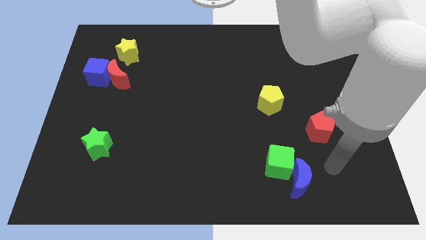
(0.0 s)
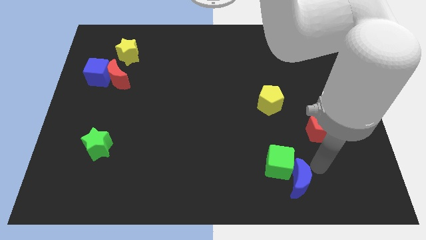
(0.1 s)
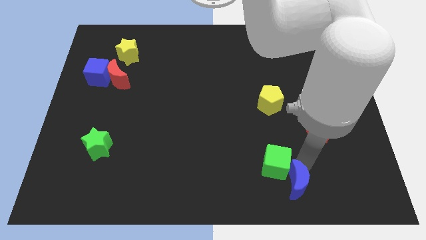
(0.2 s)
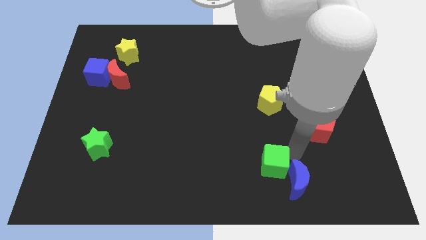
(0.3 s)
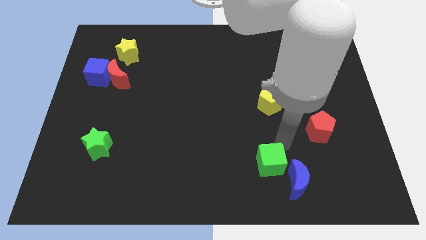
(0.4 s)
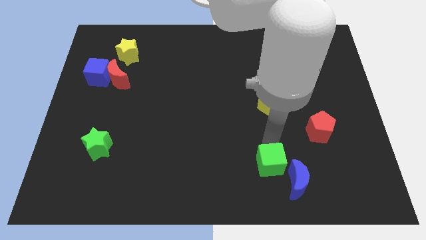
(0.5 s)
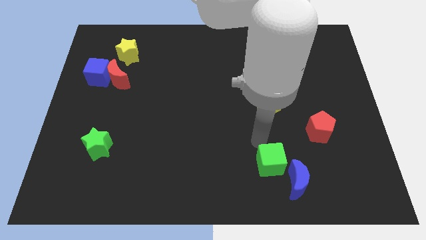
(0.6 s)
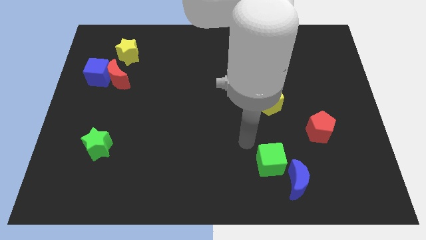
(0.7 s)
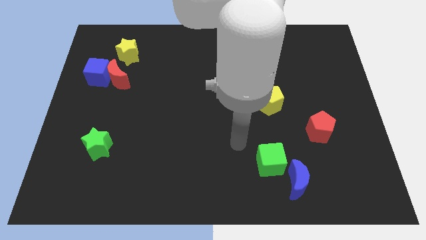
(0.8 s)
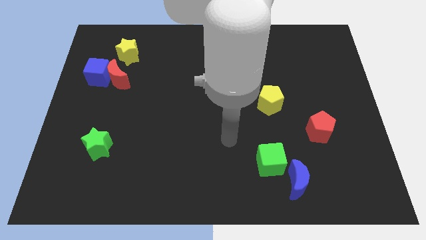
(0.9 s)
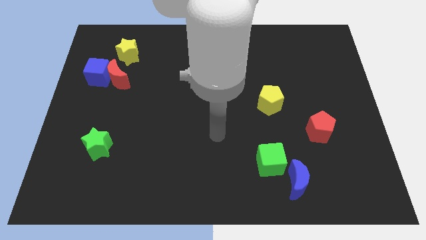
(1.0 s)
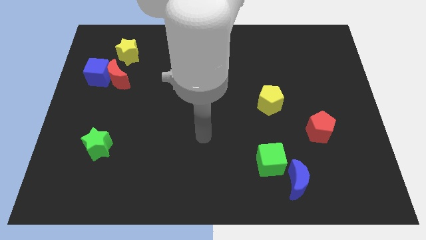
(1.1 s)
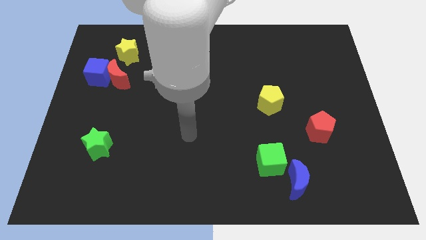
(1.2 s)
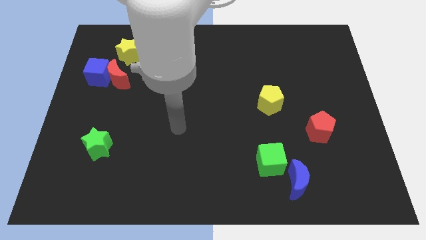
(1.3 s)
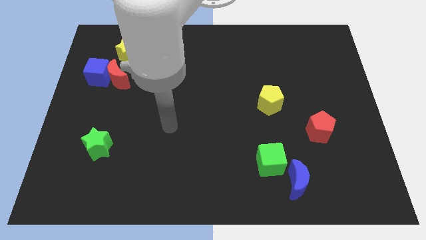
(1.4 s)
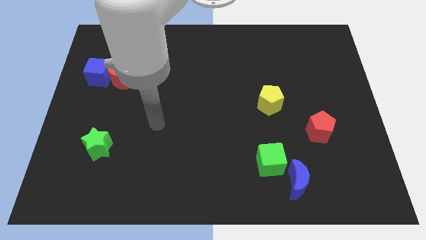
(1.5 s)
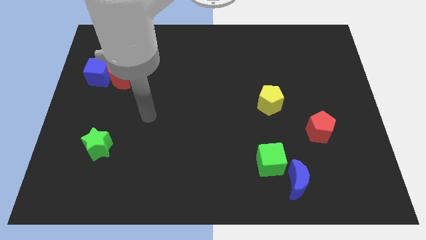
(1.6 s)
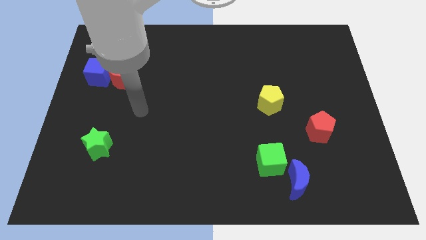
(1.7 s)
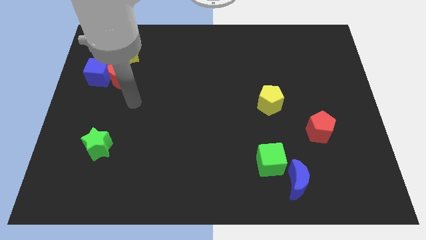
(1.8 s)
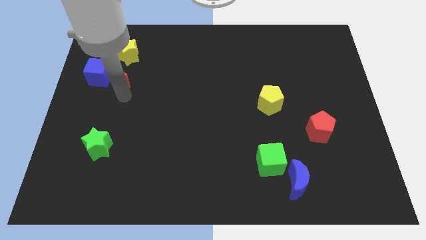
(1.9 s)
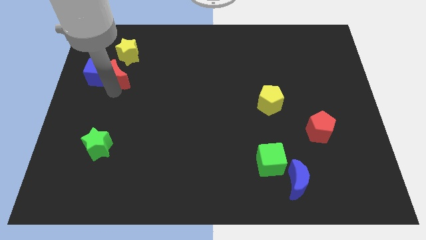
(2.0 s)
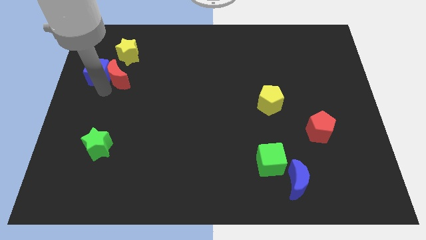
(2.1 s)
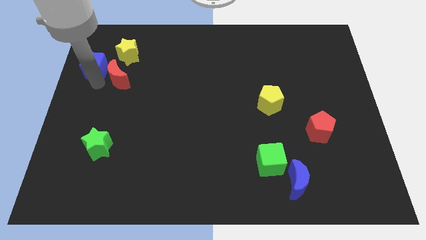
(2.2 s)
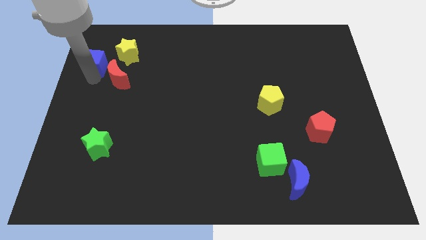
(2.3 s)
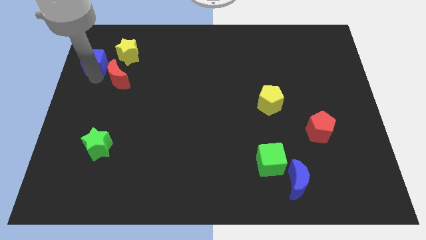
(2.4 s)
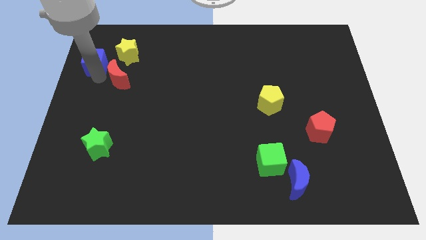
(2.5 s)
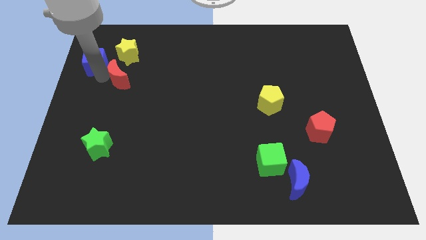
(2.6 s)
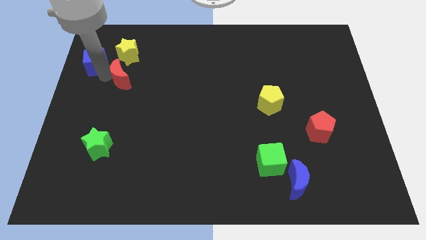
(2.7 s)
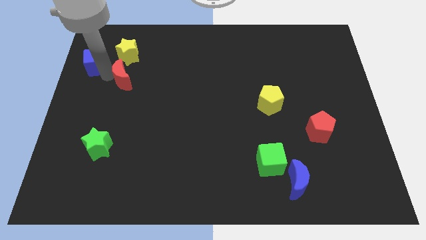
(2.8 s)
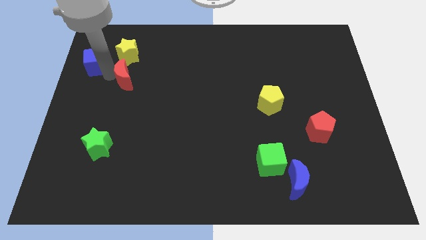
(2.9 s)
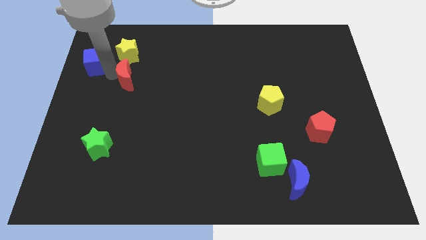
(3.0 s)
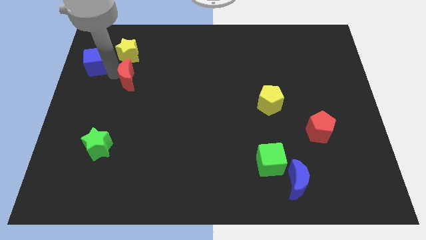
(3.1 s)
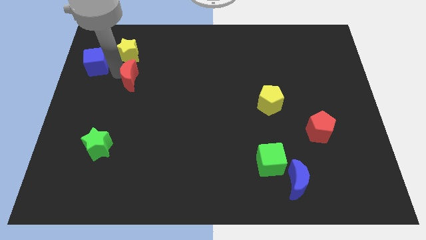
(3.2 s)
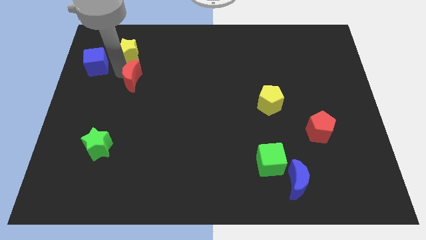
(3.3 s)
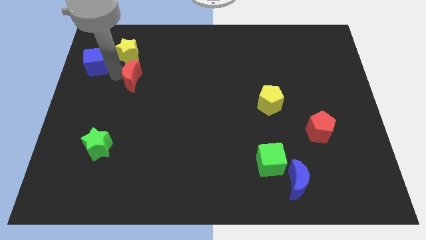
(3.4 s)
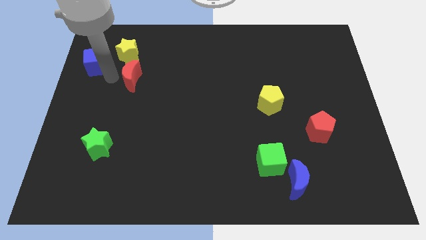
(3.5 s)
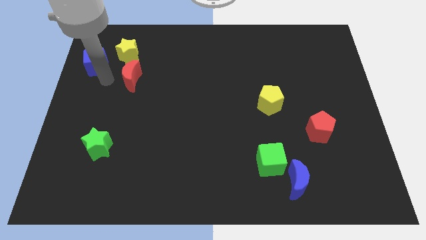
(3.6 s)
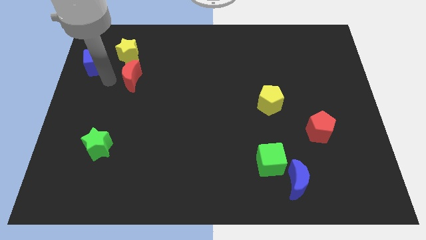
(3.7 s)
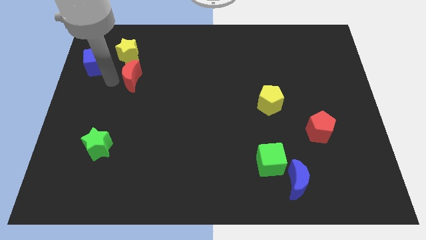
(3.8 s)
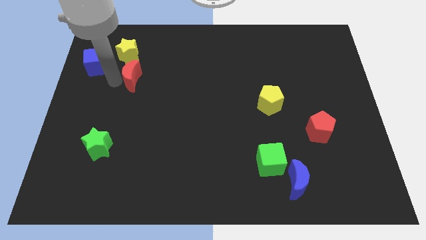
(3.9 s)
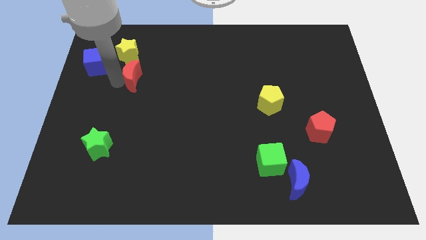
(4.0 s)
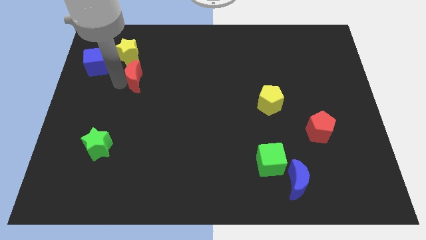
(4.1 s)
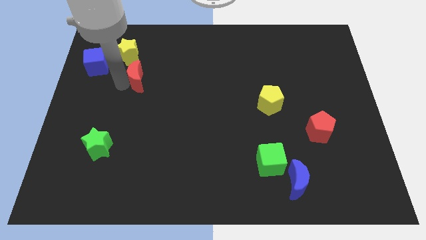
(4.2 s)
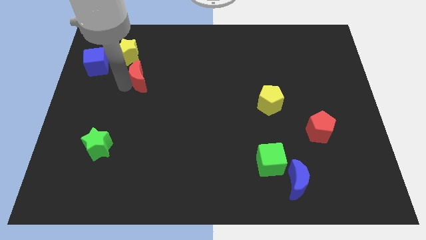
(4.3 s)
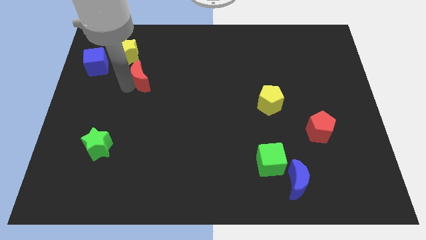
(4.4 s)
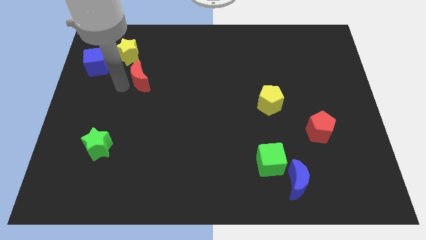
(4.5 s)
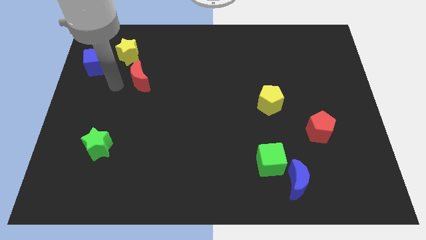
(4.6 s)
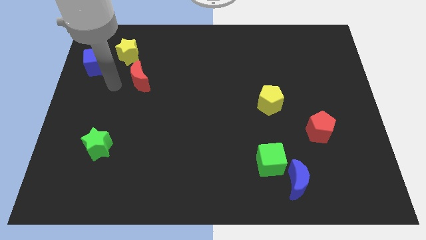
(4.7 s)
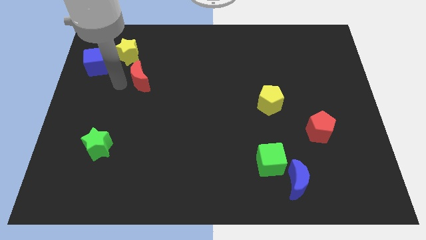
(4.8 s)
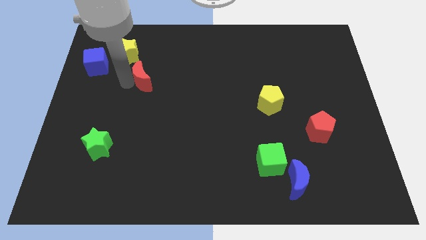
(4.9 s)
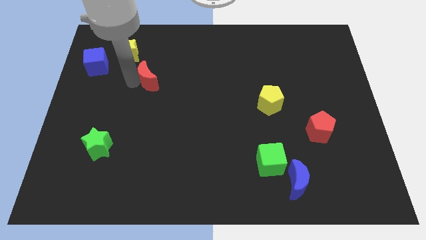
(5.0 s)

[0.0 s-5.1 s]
push the red moon slightly right

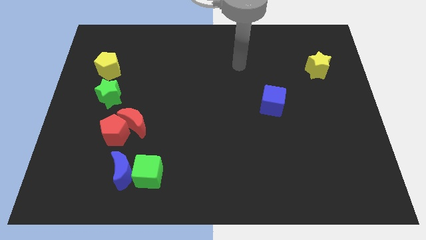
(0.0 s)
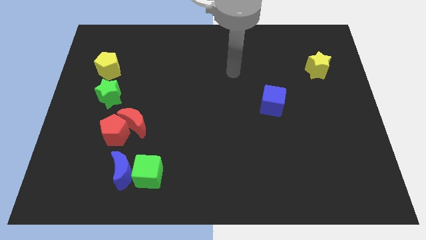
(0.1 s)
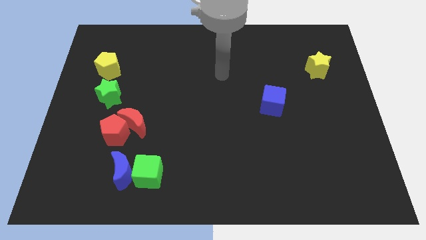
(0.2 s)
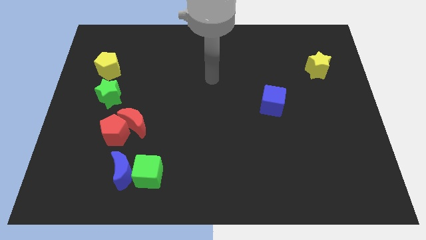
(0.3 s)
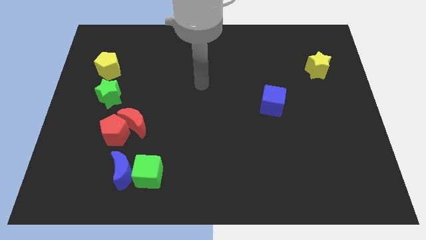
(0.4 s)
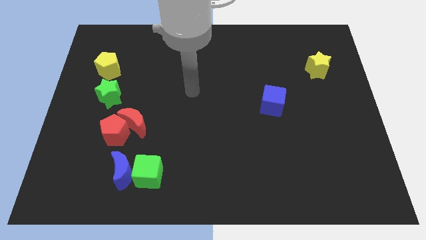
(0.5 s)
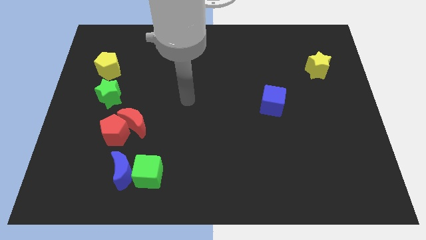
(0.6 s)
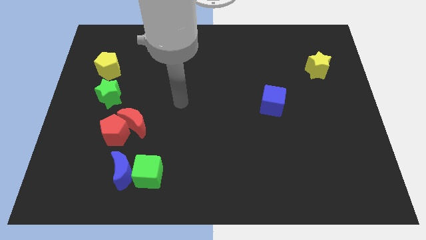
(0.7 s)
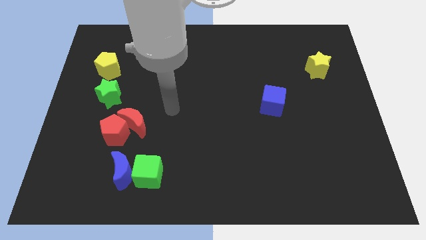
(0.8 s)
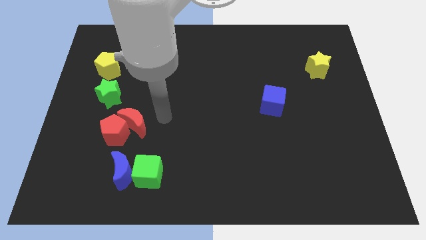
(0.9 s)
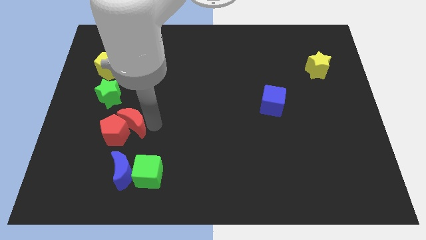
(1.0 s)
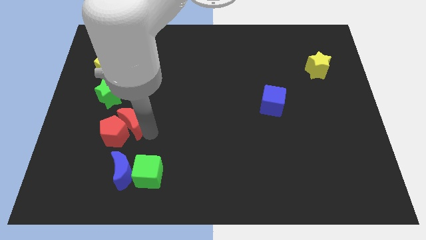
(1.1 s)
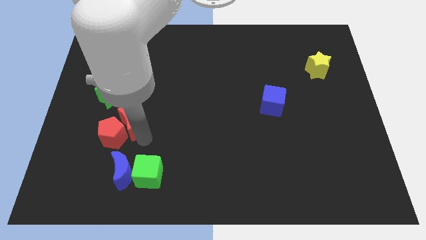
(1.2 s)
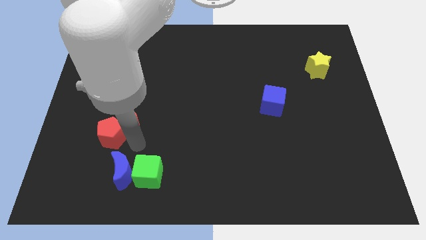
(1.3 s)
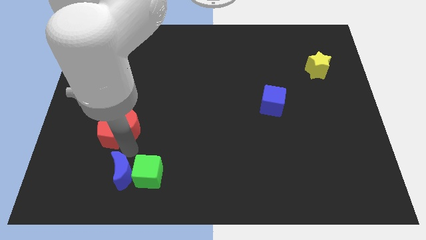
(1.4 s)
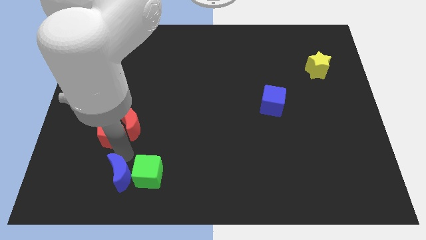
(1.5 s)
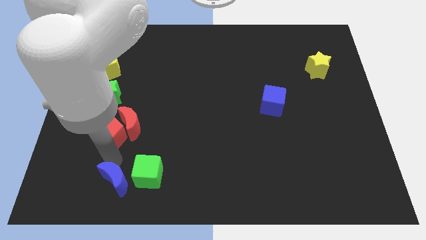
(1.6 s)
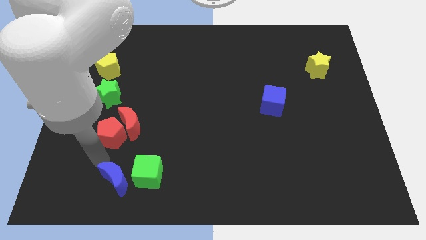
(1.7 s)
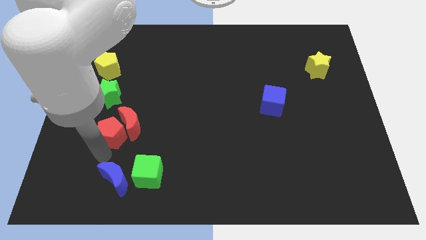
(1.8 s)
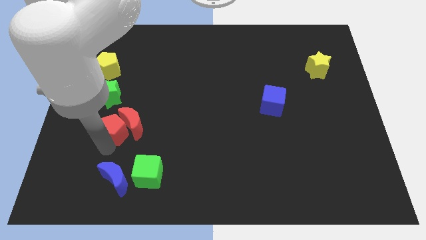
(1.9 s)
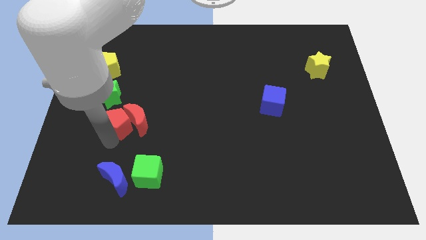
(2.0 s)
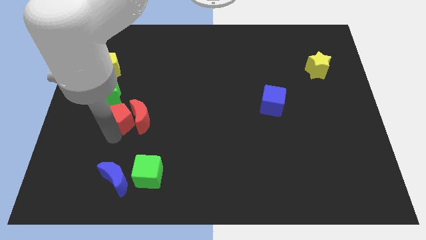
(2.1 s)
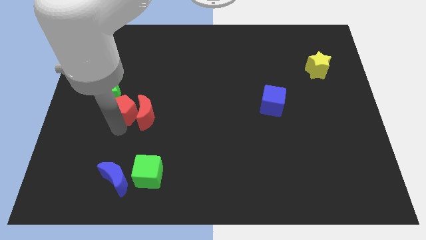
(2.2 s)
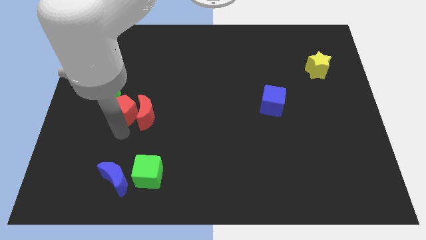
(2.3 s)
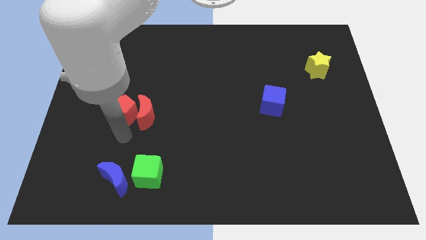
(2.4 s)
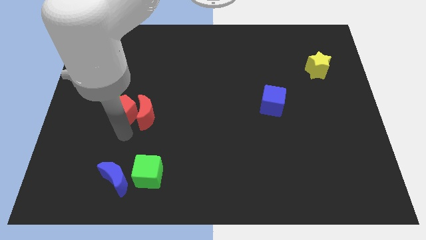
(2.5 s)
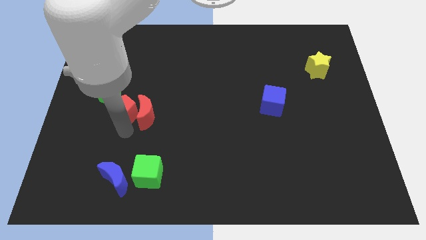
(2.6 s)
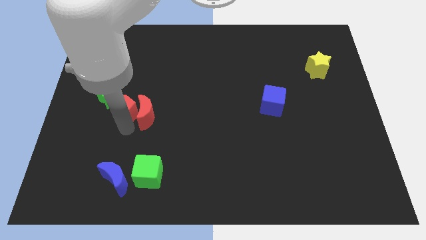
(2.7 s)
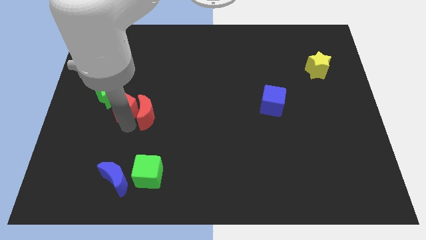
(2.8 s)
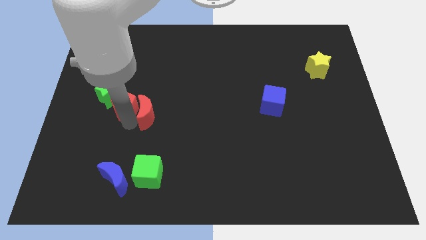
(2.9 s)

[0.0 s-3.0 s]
slightly move the red pentagon up
